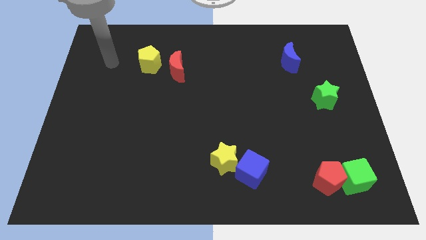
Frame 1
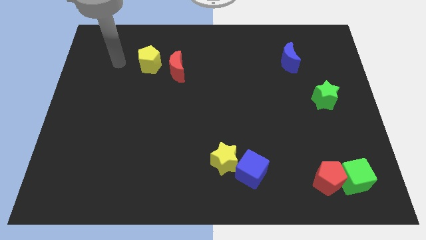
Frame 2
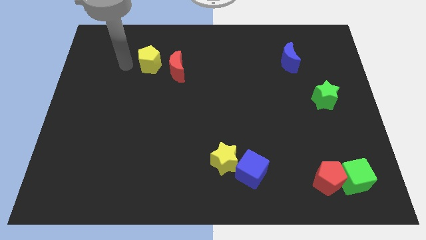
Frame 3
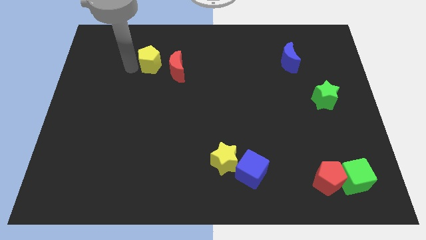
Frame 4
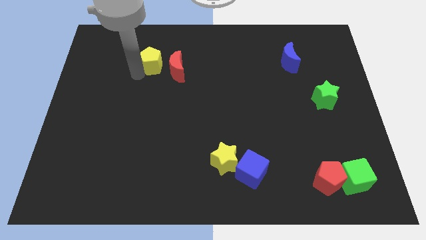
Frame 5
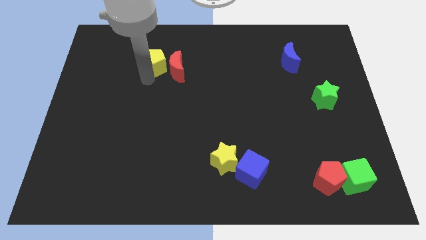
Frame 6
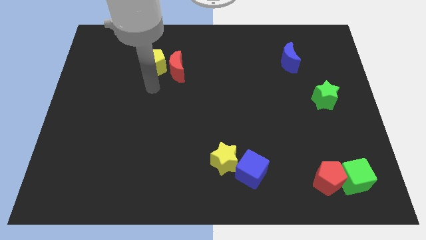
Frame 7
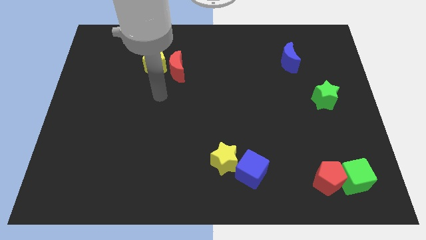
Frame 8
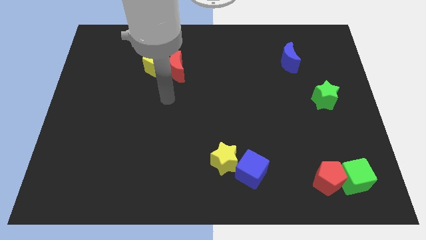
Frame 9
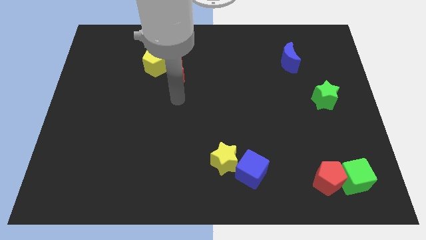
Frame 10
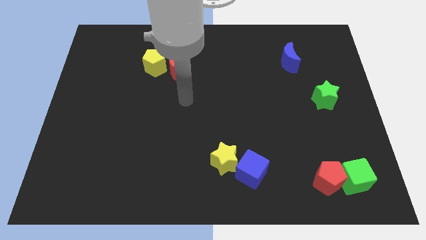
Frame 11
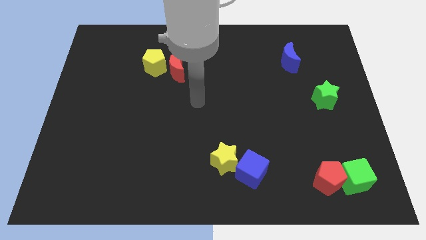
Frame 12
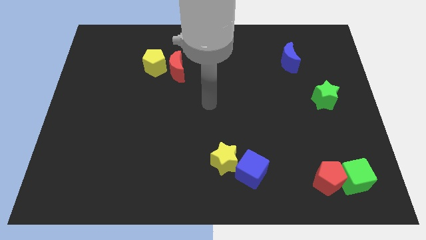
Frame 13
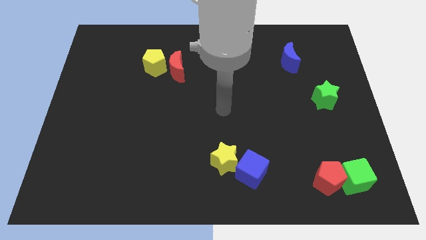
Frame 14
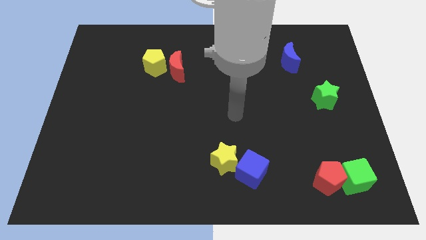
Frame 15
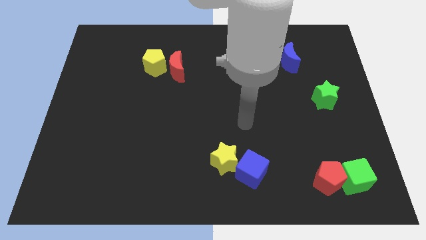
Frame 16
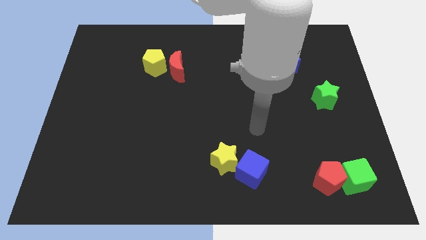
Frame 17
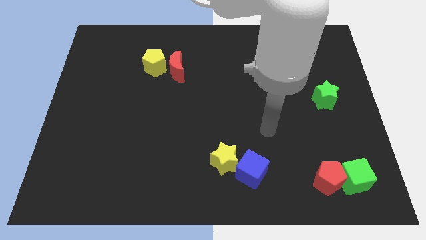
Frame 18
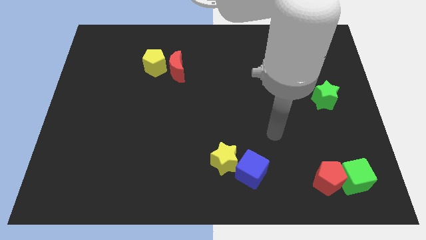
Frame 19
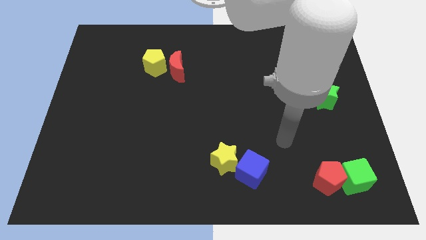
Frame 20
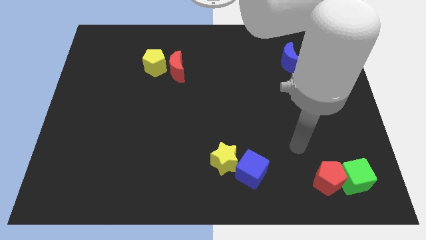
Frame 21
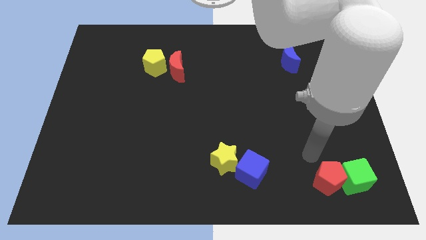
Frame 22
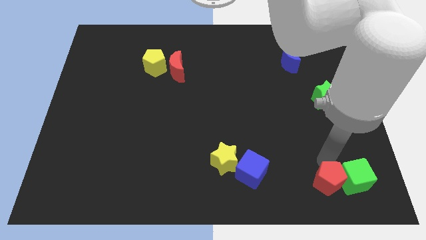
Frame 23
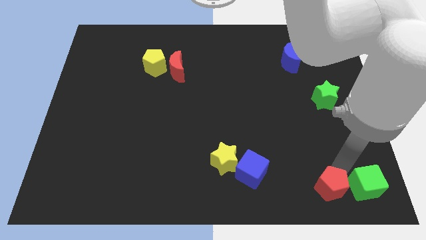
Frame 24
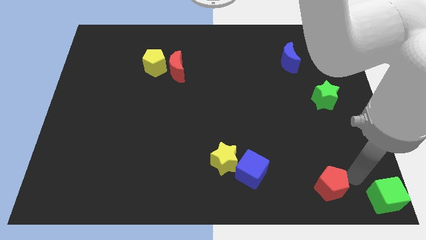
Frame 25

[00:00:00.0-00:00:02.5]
move the red pentagon away from the green cube

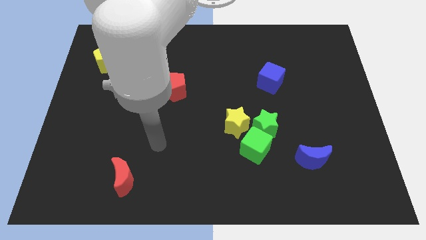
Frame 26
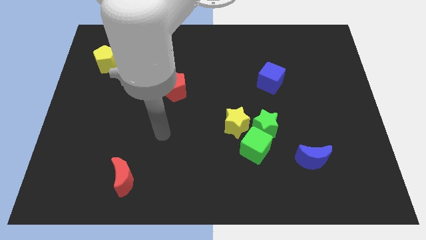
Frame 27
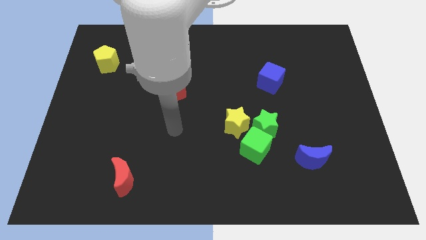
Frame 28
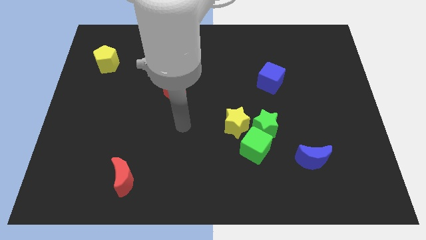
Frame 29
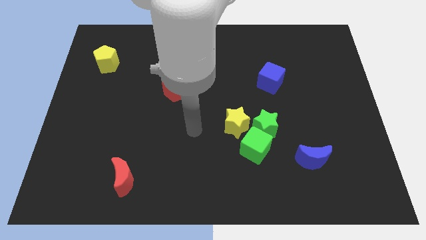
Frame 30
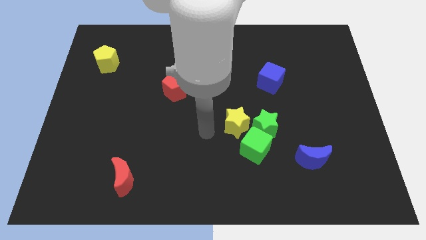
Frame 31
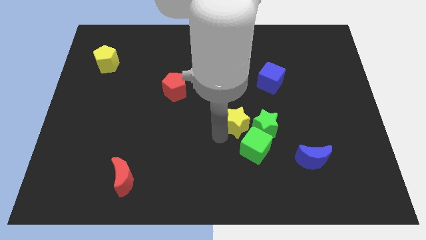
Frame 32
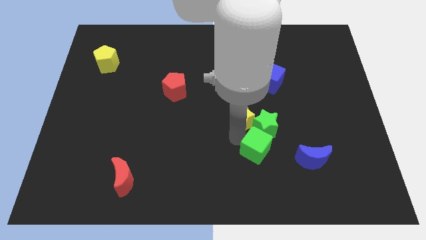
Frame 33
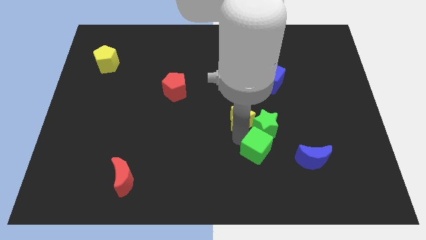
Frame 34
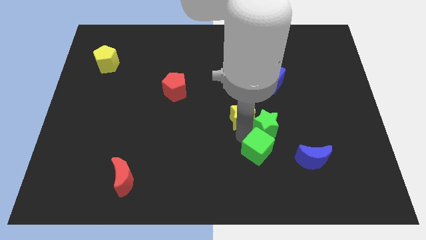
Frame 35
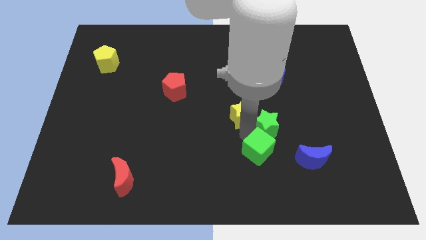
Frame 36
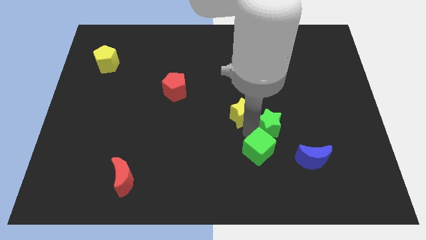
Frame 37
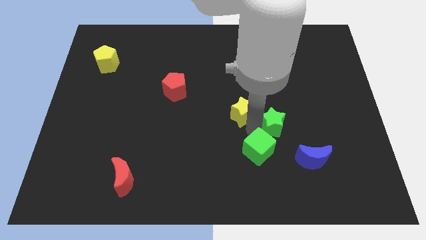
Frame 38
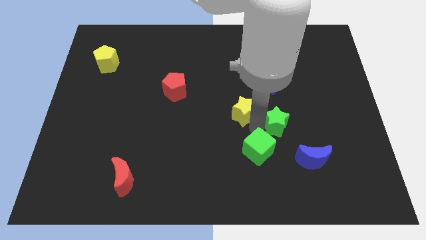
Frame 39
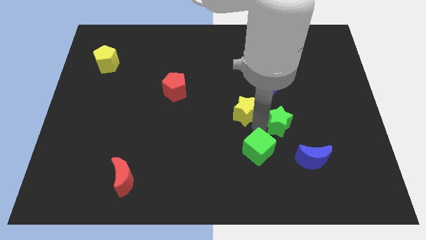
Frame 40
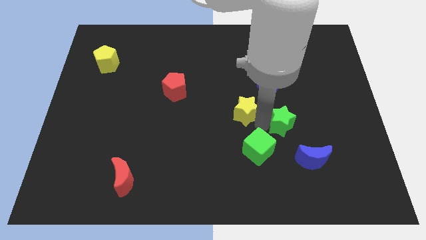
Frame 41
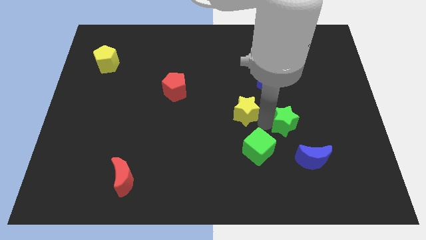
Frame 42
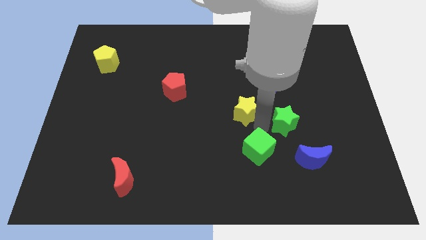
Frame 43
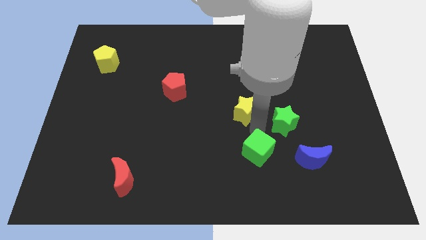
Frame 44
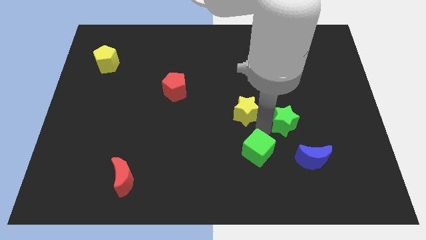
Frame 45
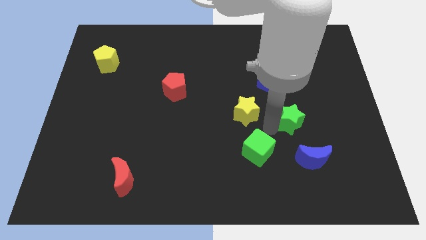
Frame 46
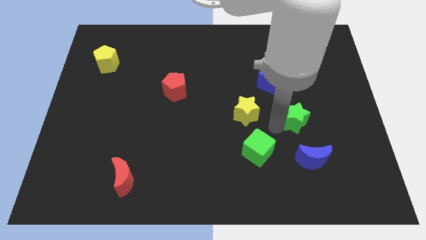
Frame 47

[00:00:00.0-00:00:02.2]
separate the green star from the green cube and yellow star

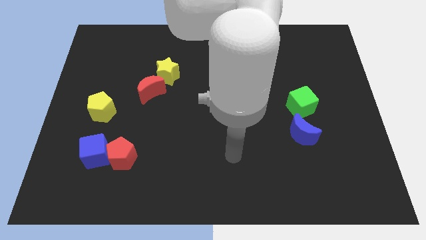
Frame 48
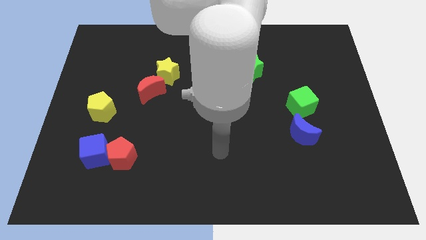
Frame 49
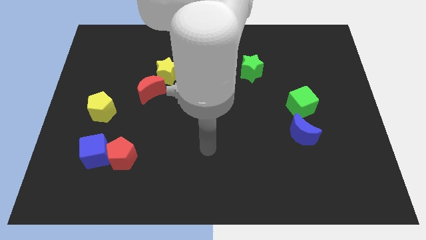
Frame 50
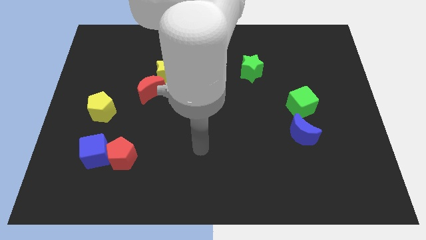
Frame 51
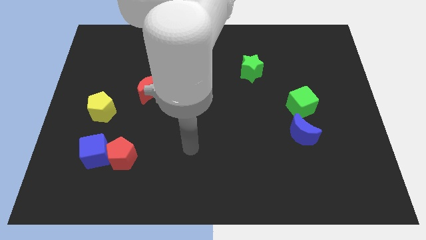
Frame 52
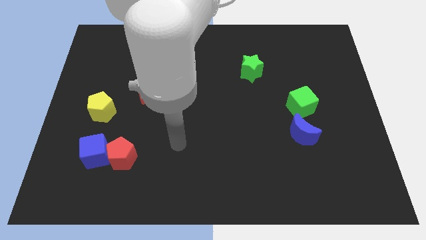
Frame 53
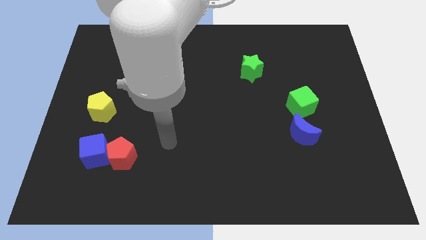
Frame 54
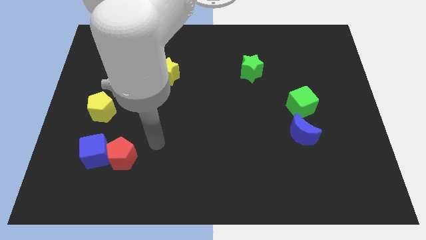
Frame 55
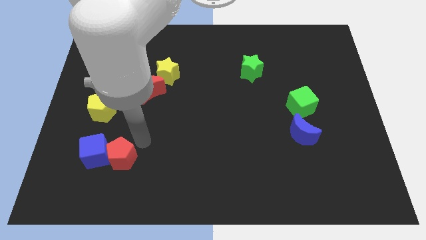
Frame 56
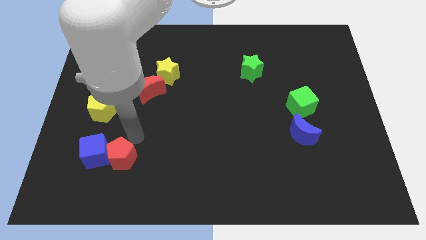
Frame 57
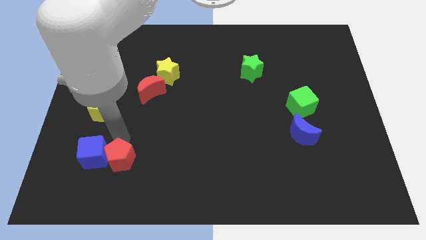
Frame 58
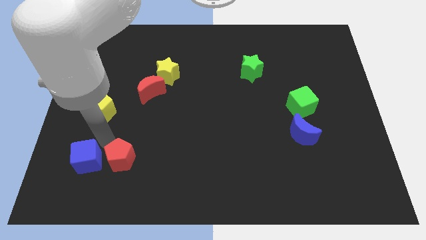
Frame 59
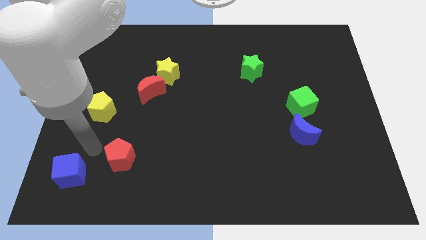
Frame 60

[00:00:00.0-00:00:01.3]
move the red pentagon away from the blue cube

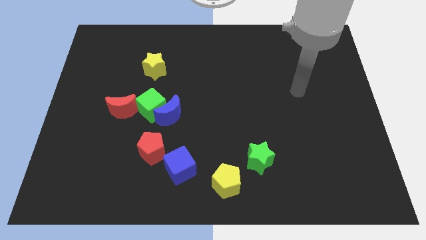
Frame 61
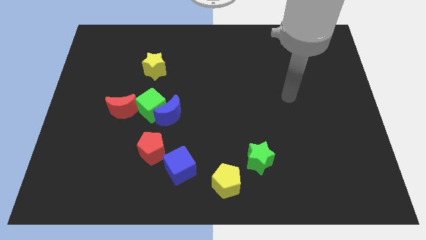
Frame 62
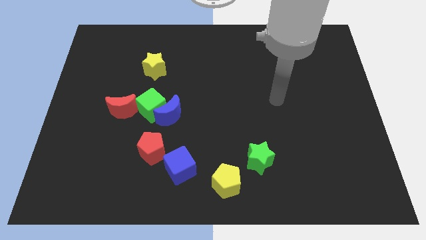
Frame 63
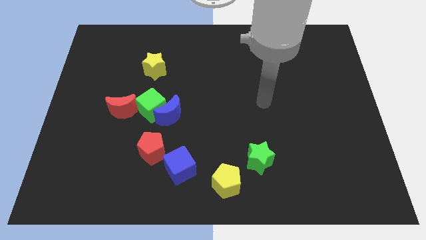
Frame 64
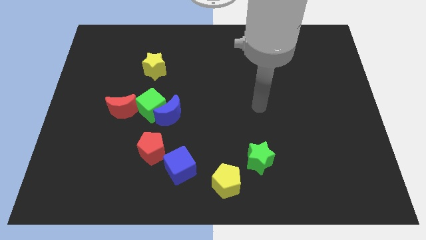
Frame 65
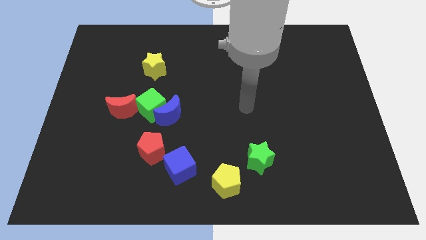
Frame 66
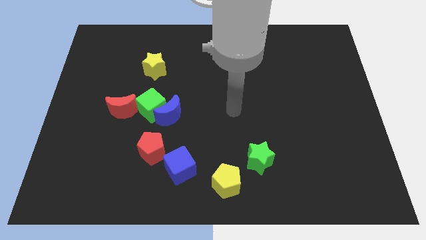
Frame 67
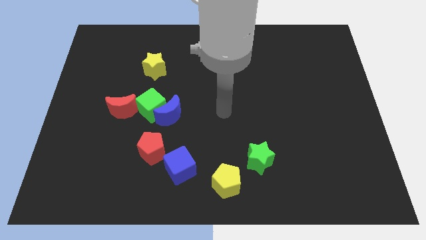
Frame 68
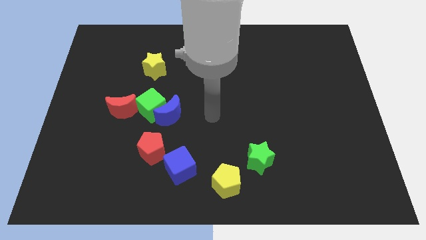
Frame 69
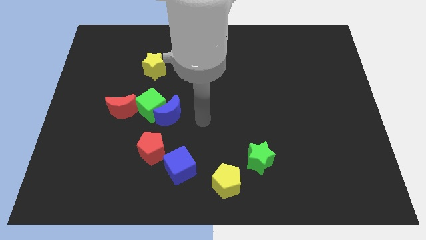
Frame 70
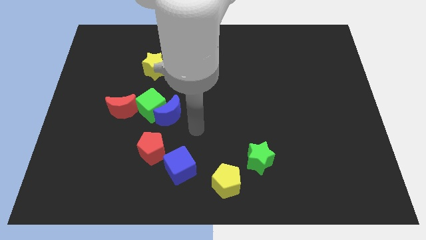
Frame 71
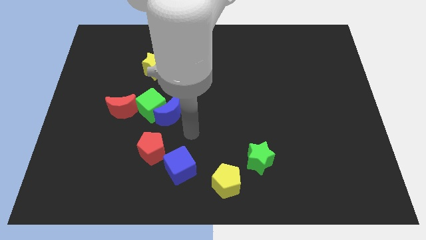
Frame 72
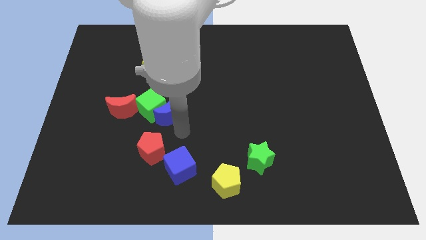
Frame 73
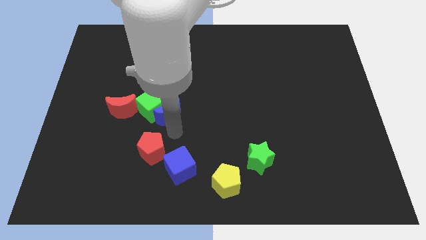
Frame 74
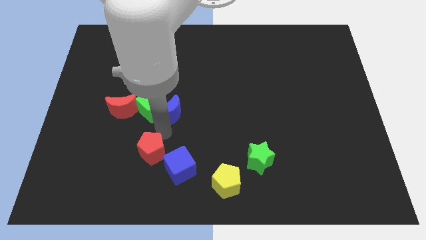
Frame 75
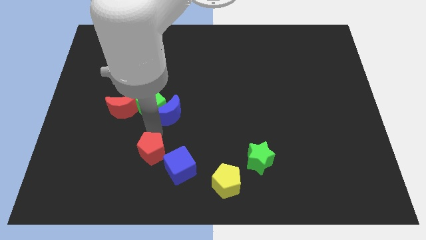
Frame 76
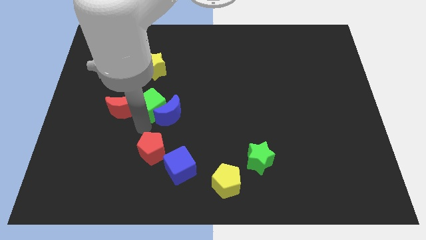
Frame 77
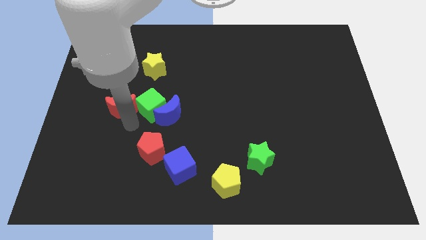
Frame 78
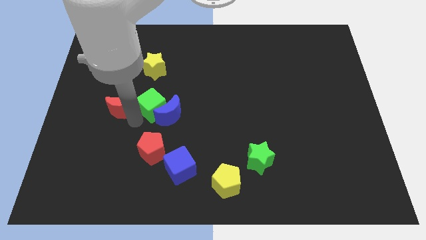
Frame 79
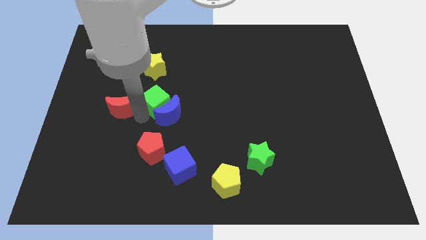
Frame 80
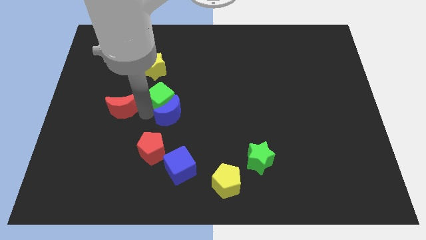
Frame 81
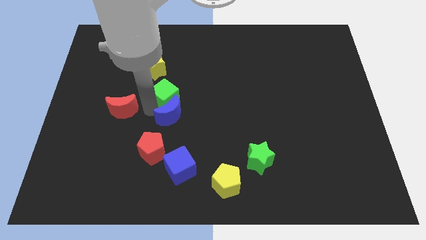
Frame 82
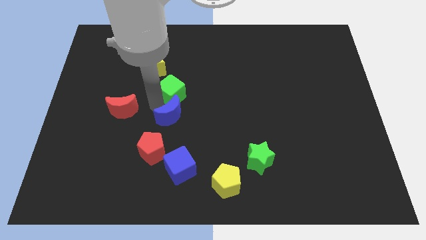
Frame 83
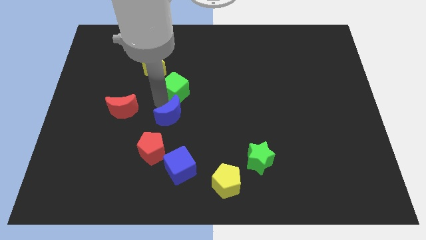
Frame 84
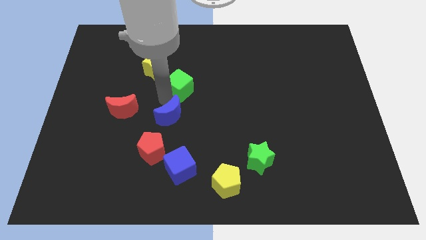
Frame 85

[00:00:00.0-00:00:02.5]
move the green cube away from the blue moon and red moon

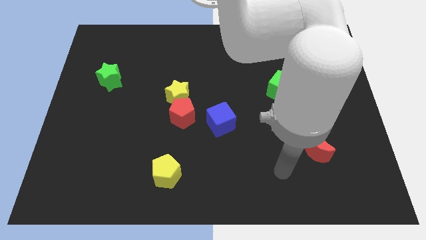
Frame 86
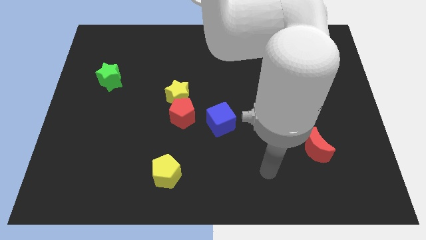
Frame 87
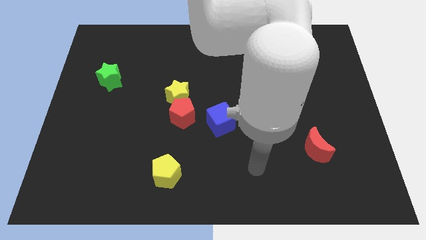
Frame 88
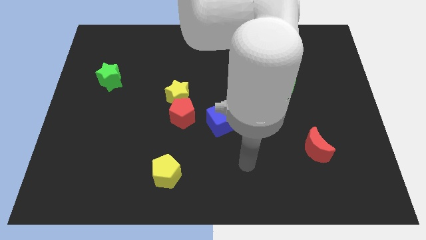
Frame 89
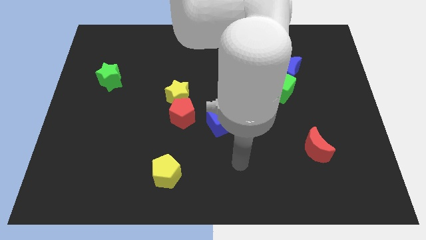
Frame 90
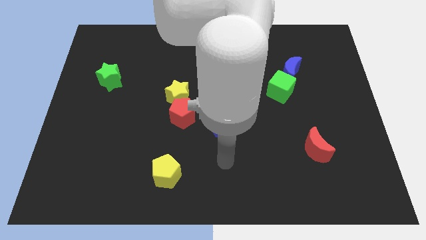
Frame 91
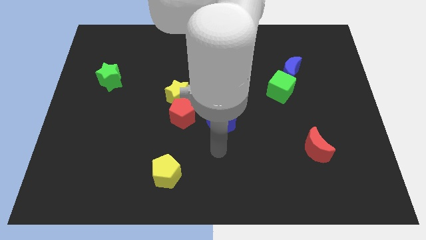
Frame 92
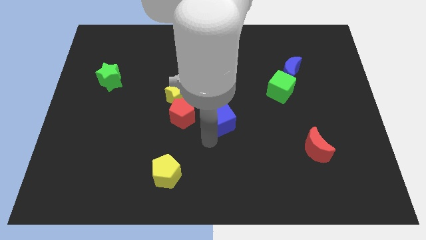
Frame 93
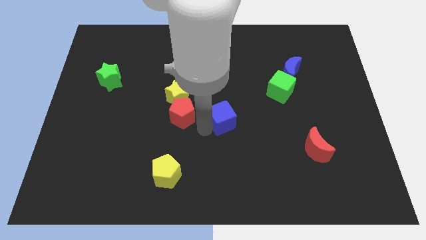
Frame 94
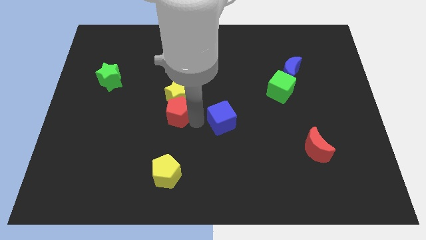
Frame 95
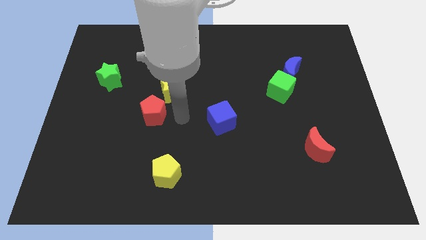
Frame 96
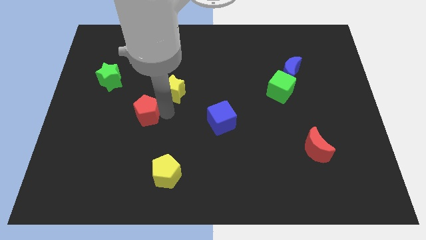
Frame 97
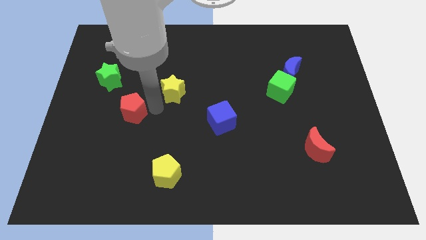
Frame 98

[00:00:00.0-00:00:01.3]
separate the yellow star from the red pentagon
